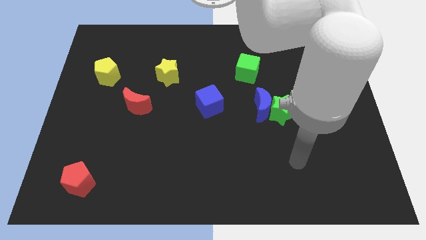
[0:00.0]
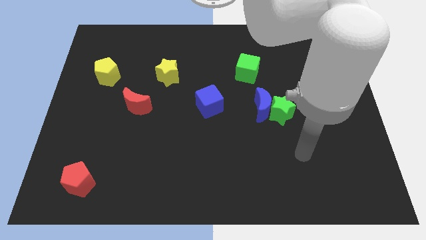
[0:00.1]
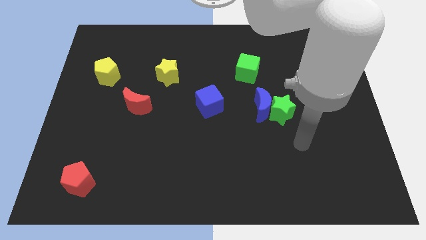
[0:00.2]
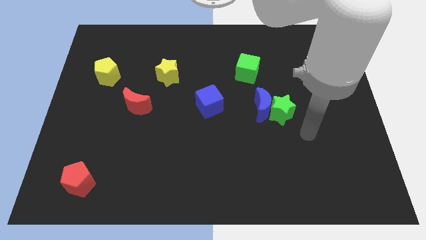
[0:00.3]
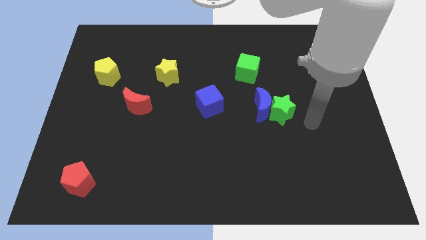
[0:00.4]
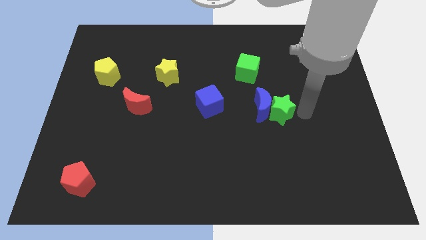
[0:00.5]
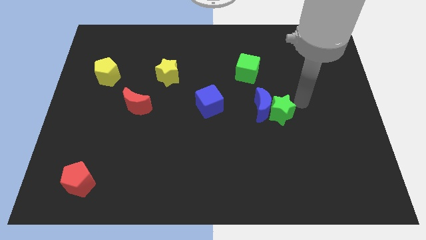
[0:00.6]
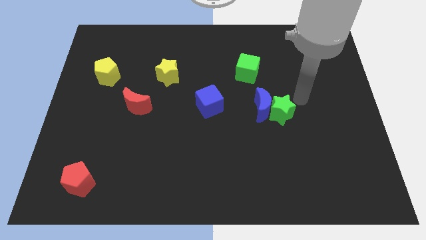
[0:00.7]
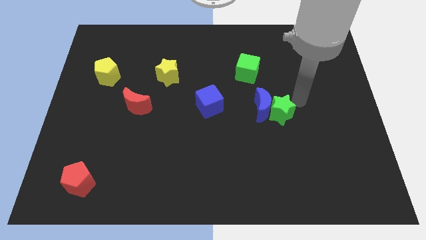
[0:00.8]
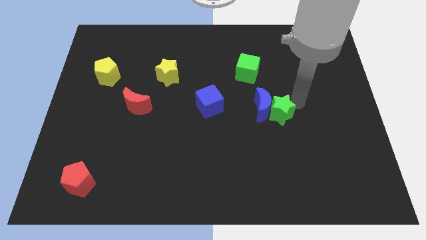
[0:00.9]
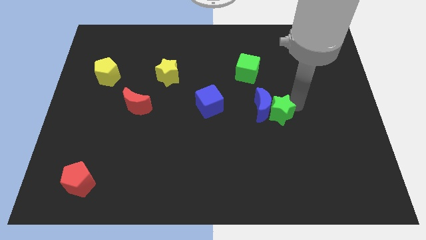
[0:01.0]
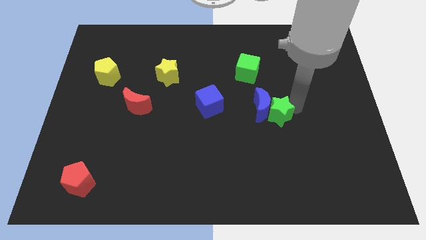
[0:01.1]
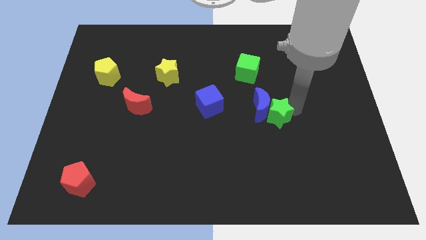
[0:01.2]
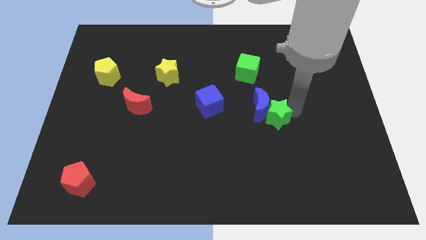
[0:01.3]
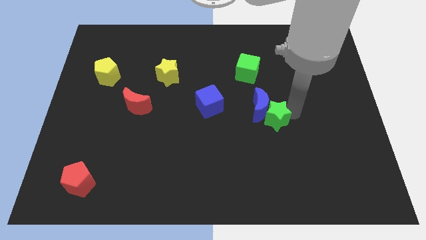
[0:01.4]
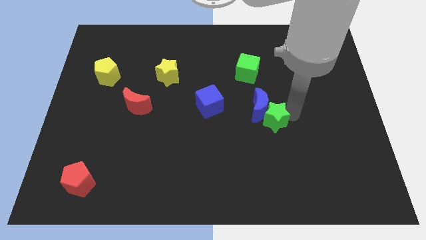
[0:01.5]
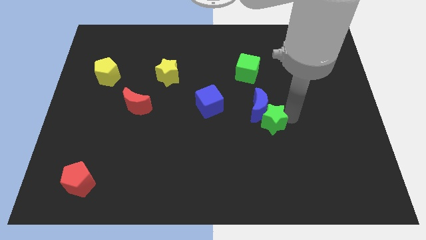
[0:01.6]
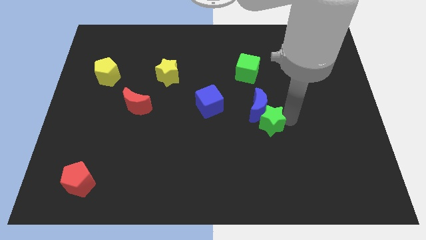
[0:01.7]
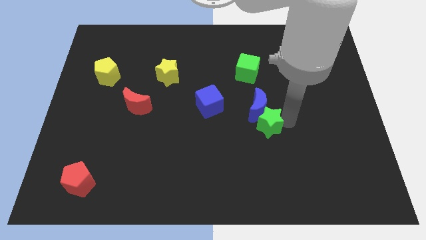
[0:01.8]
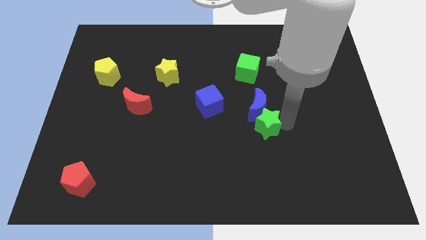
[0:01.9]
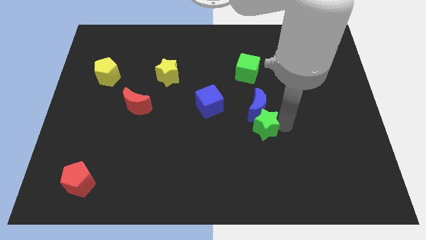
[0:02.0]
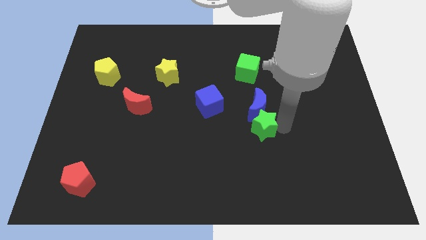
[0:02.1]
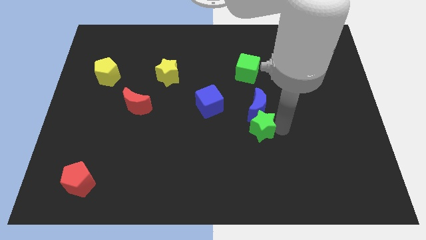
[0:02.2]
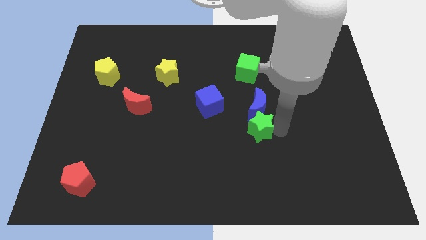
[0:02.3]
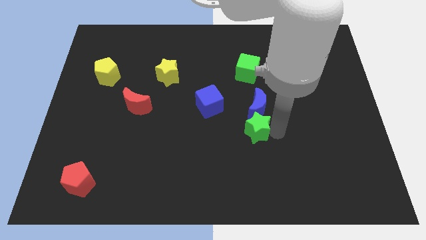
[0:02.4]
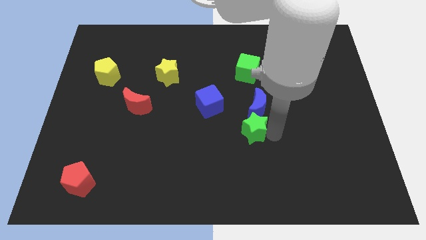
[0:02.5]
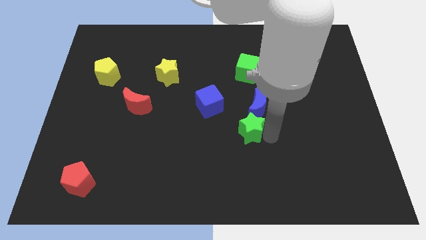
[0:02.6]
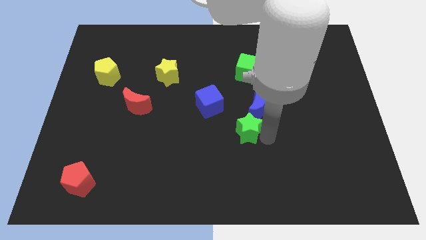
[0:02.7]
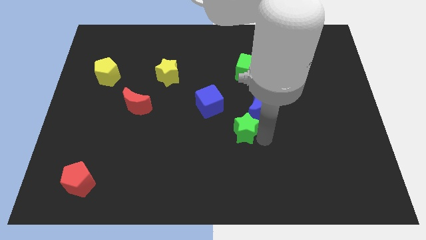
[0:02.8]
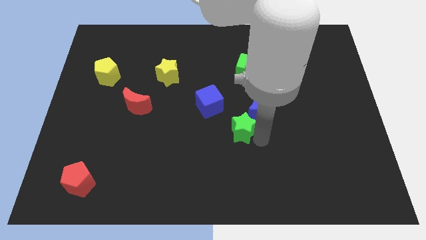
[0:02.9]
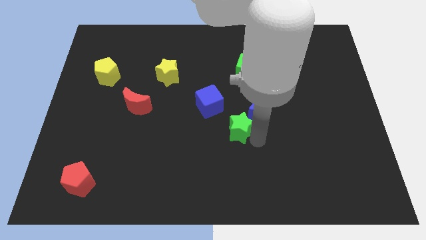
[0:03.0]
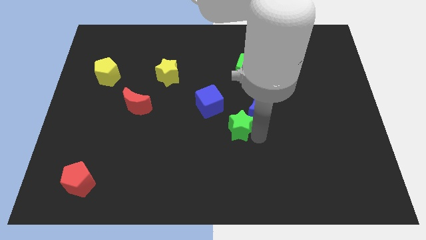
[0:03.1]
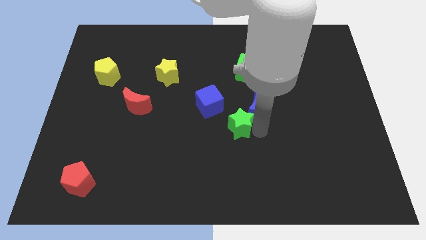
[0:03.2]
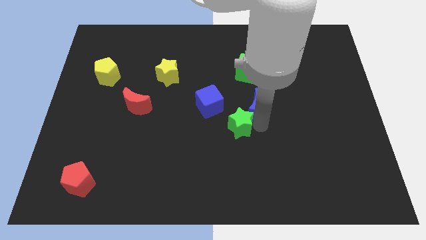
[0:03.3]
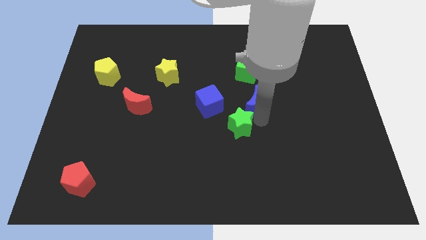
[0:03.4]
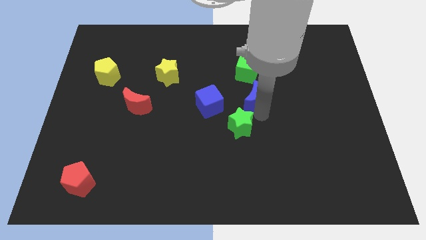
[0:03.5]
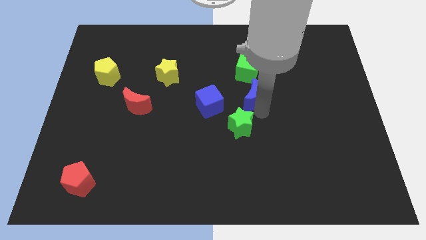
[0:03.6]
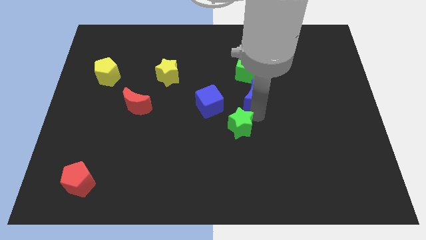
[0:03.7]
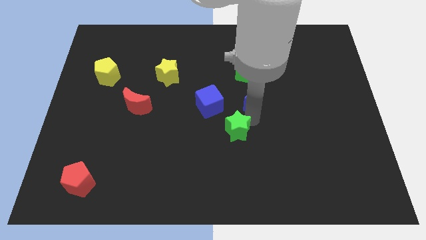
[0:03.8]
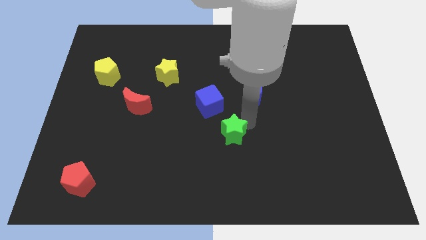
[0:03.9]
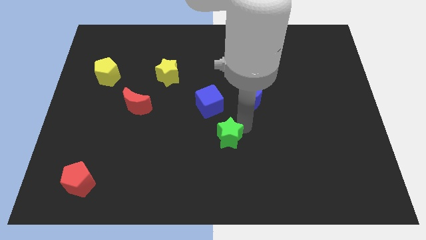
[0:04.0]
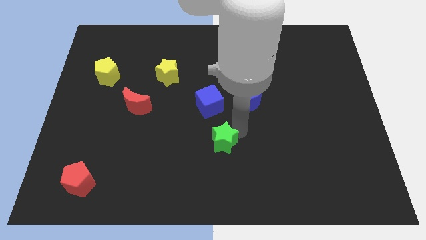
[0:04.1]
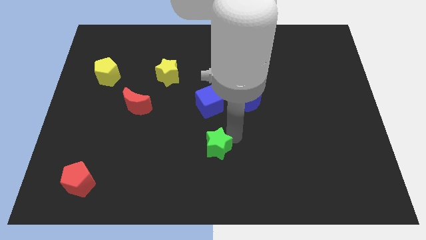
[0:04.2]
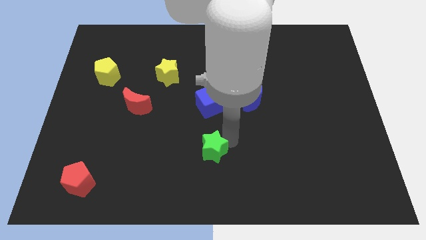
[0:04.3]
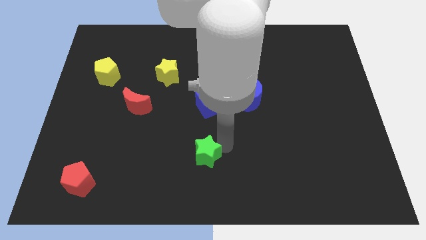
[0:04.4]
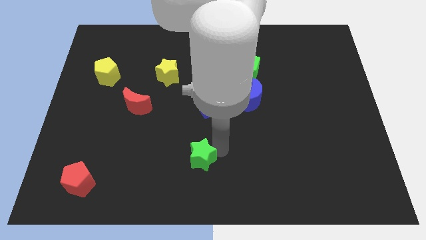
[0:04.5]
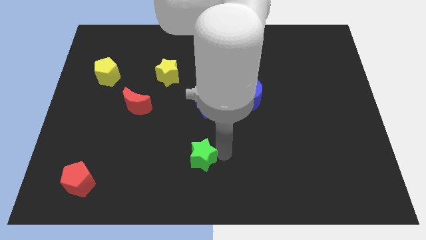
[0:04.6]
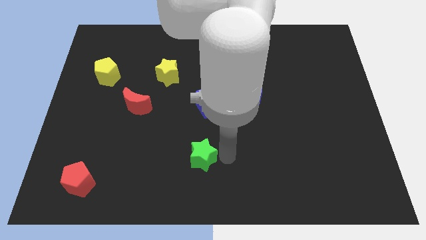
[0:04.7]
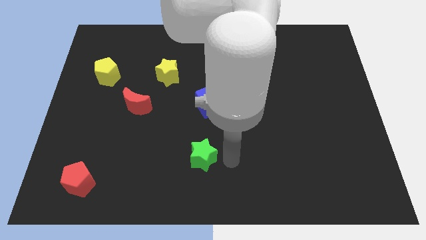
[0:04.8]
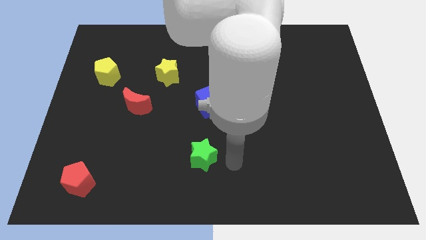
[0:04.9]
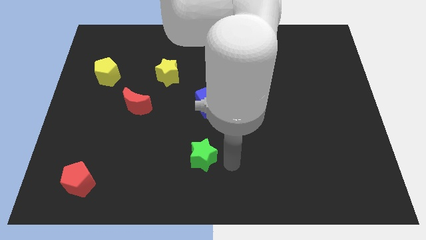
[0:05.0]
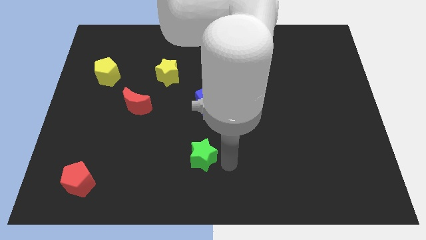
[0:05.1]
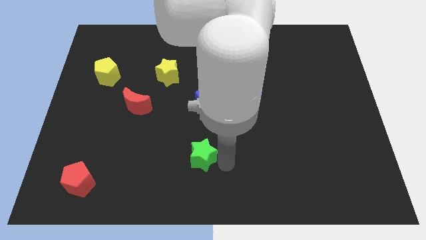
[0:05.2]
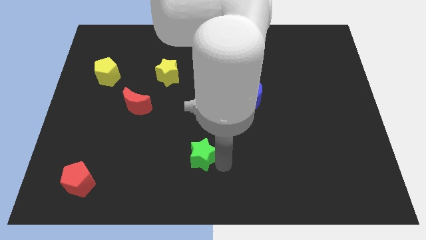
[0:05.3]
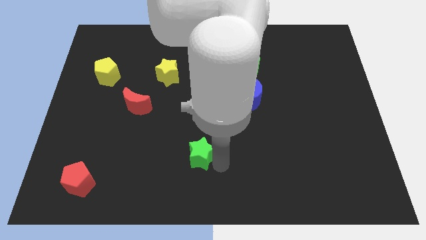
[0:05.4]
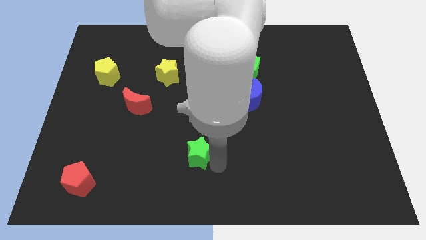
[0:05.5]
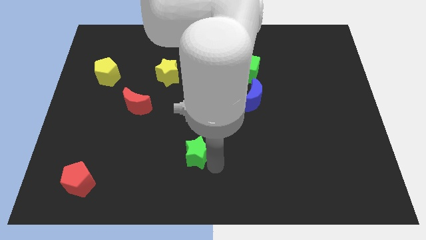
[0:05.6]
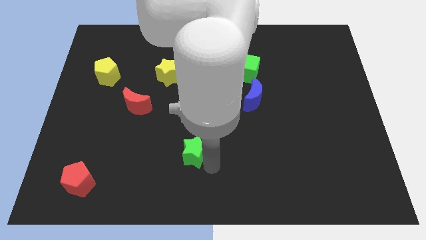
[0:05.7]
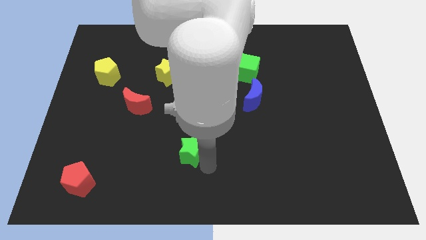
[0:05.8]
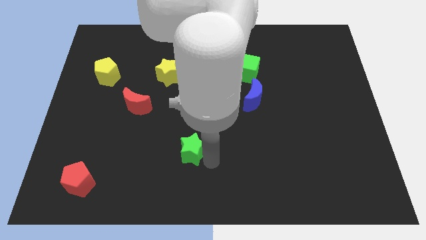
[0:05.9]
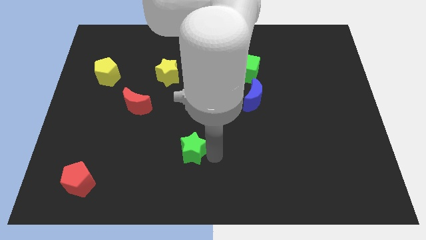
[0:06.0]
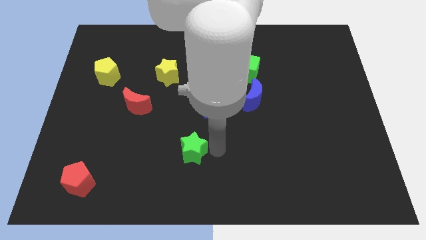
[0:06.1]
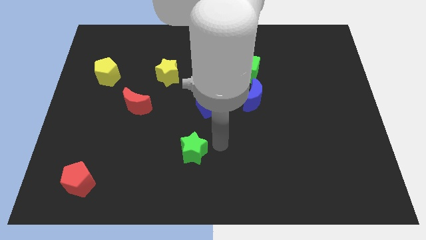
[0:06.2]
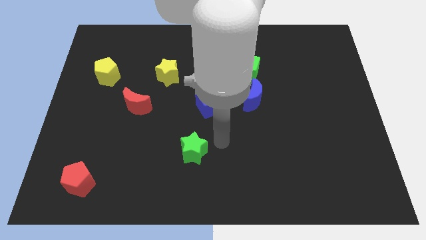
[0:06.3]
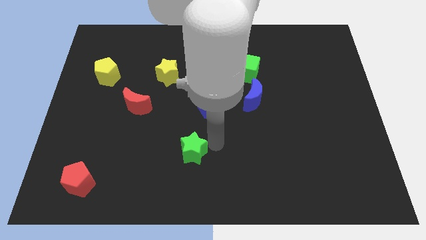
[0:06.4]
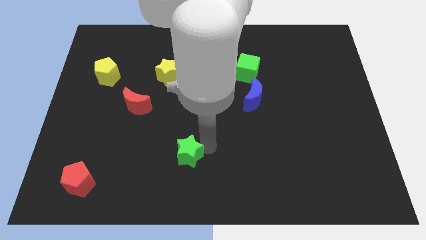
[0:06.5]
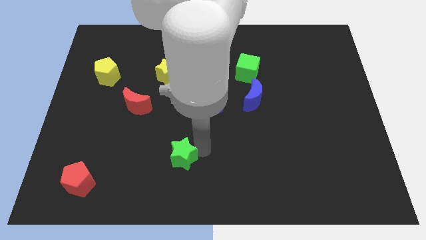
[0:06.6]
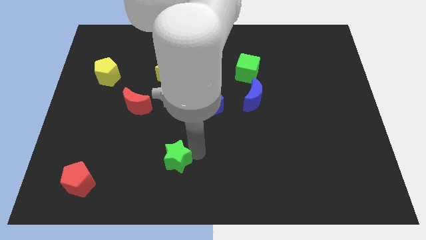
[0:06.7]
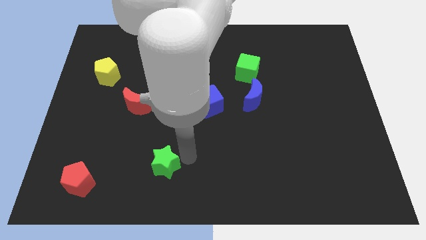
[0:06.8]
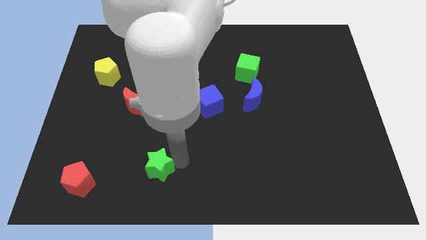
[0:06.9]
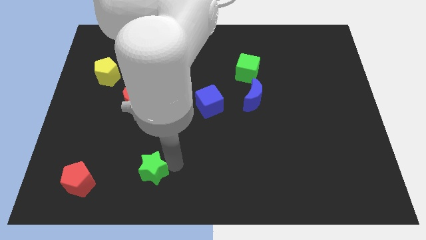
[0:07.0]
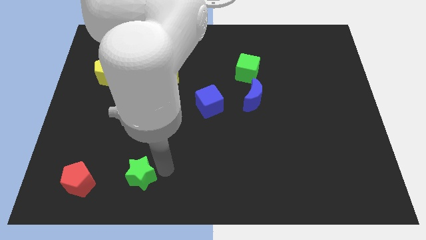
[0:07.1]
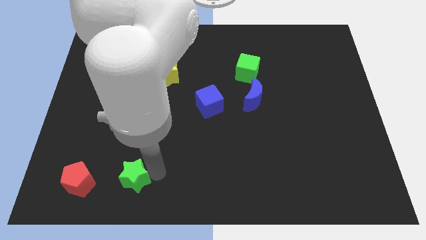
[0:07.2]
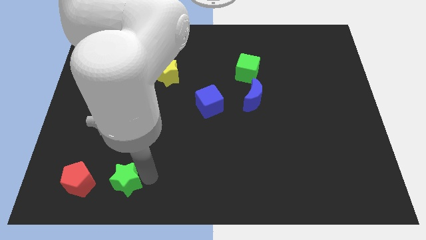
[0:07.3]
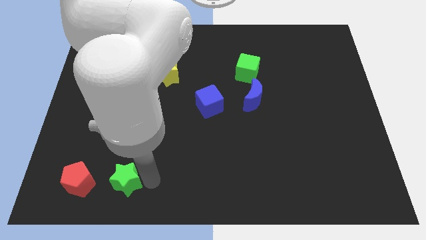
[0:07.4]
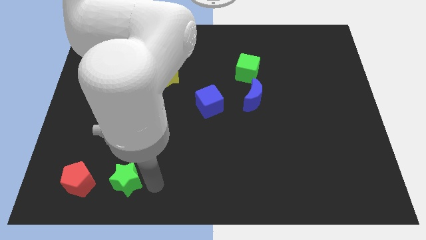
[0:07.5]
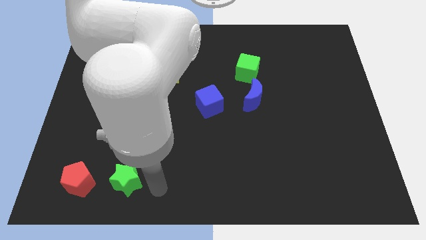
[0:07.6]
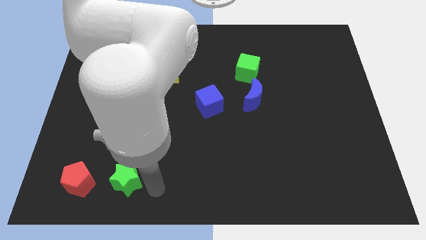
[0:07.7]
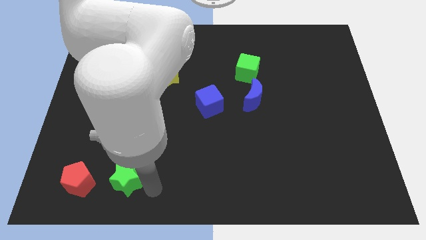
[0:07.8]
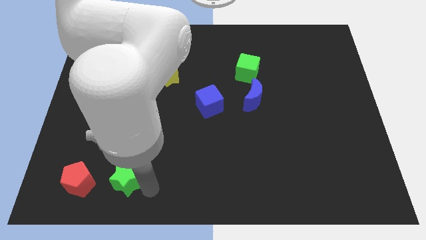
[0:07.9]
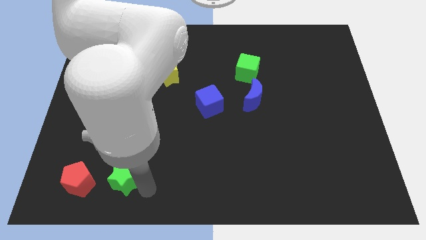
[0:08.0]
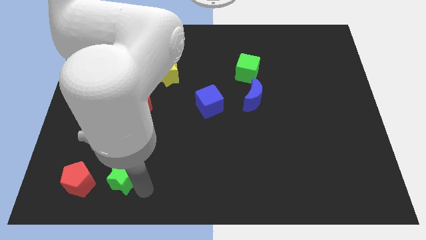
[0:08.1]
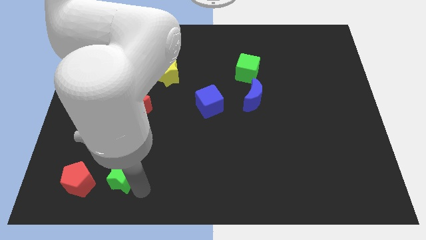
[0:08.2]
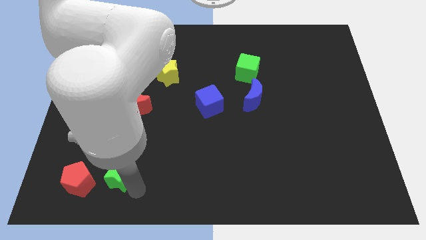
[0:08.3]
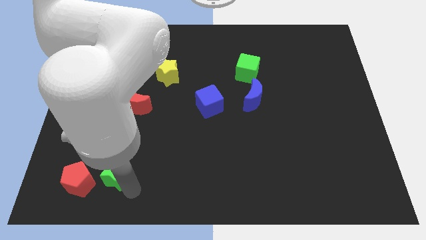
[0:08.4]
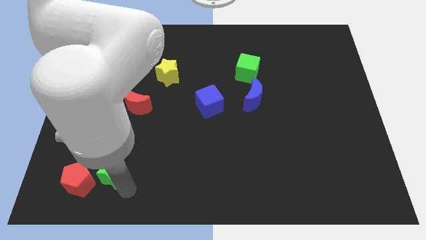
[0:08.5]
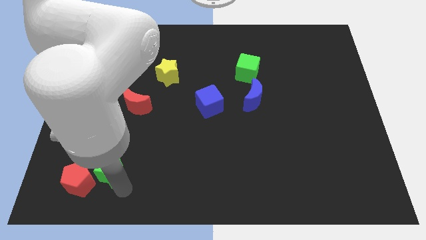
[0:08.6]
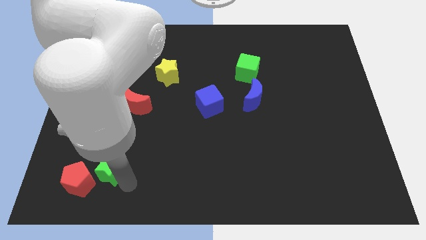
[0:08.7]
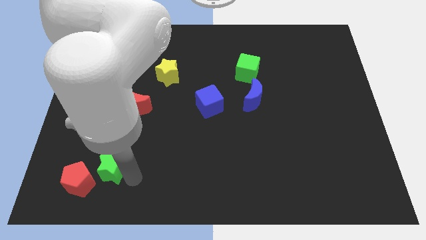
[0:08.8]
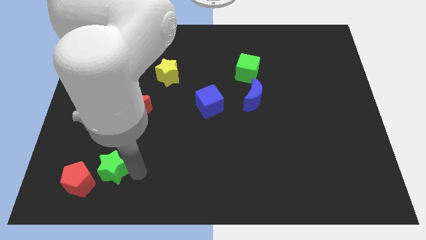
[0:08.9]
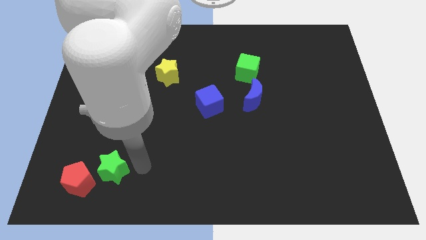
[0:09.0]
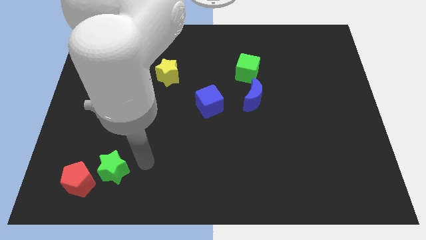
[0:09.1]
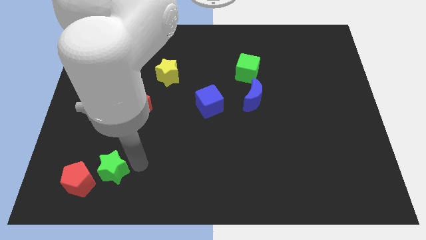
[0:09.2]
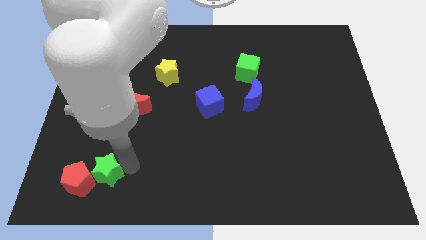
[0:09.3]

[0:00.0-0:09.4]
push the green star towards the red pentagon
